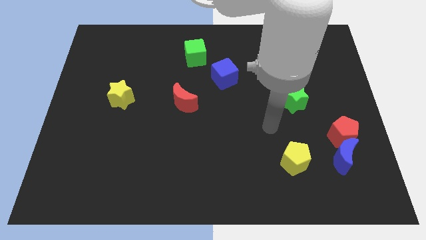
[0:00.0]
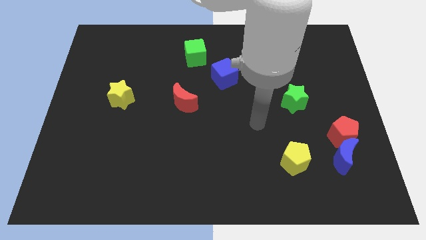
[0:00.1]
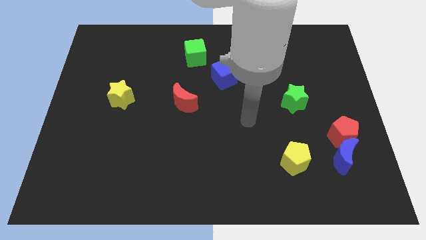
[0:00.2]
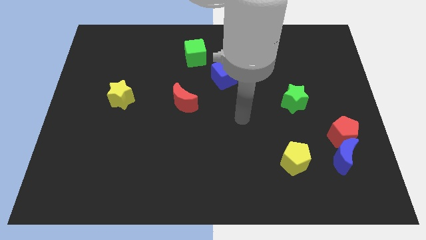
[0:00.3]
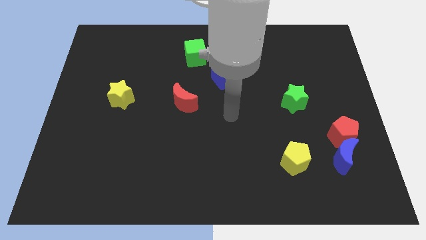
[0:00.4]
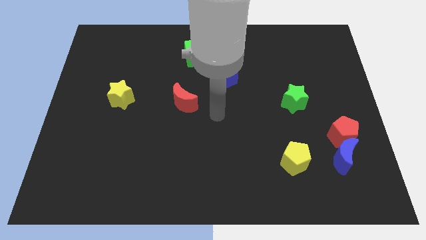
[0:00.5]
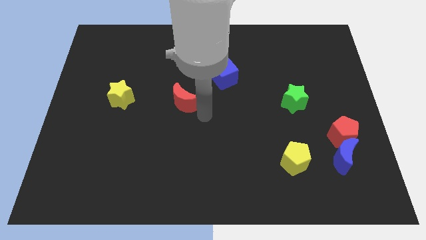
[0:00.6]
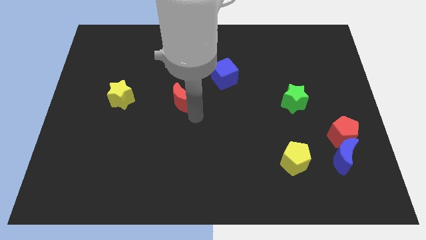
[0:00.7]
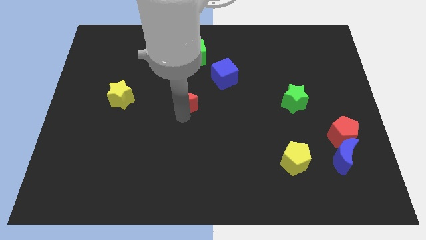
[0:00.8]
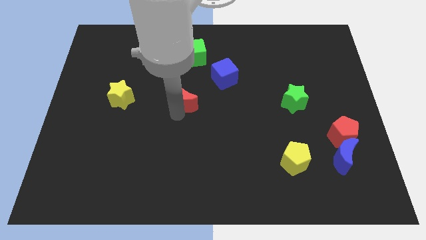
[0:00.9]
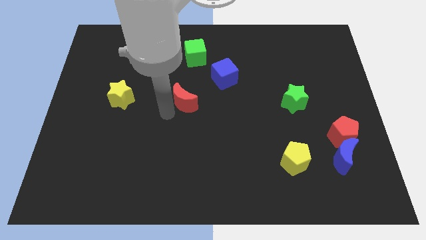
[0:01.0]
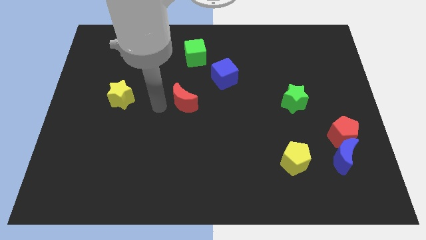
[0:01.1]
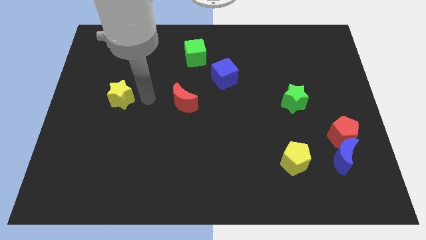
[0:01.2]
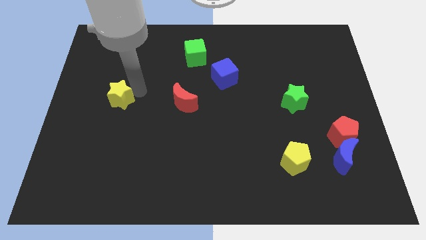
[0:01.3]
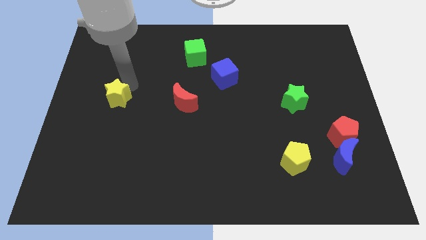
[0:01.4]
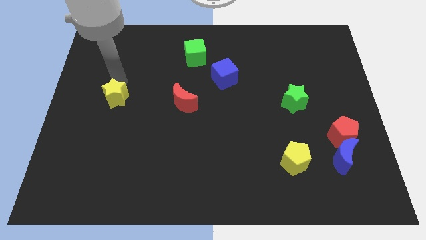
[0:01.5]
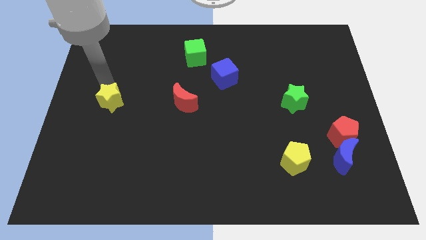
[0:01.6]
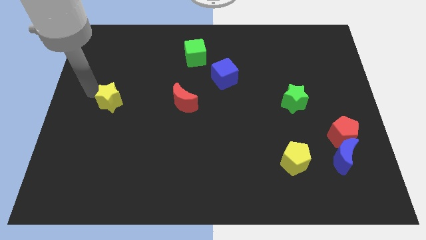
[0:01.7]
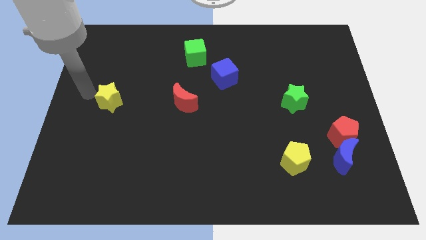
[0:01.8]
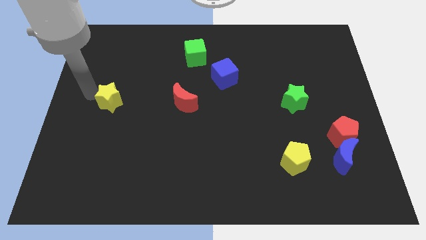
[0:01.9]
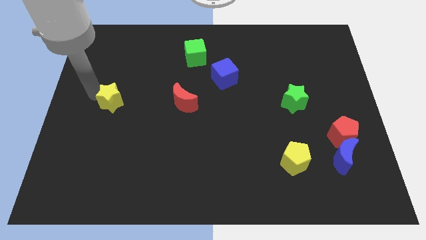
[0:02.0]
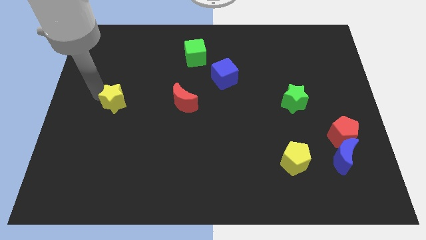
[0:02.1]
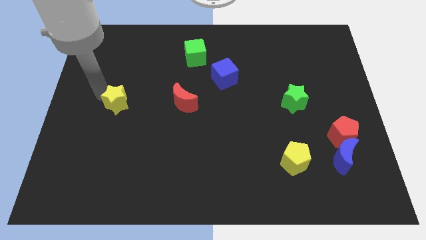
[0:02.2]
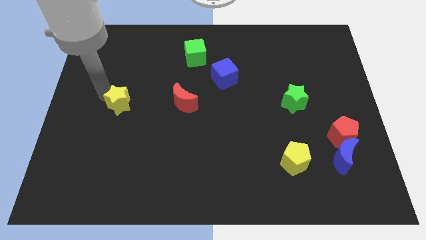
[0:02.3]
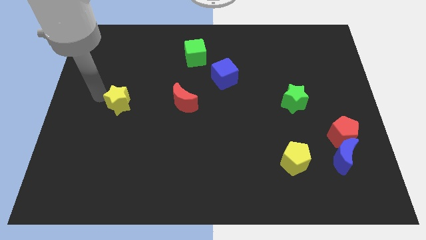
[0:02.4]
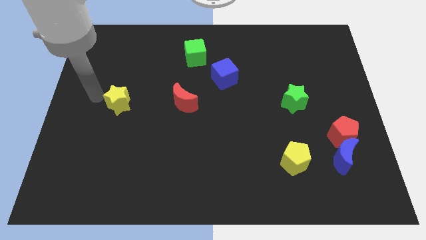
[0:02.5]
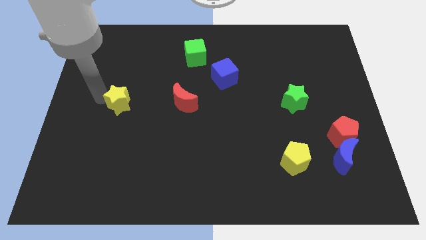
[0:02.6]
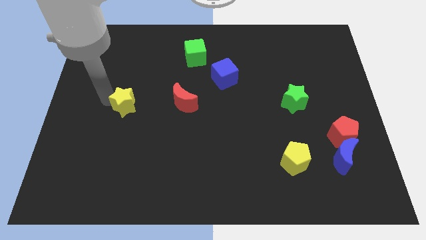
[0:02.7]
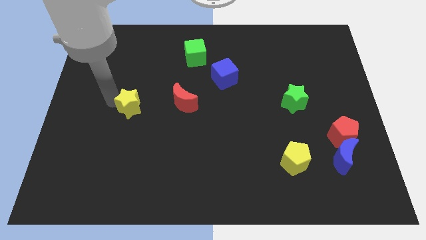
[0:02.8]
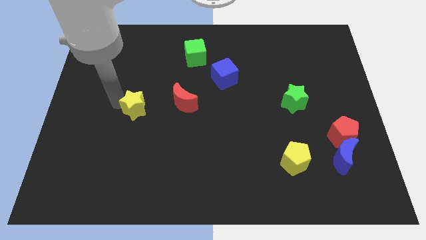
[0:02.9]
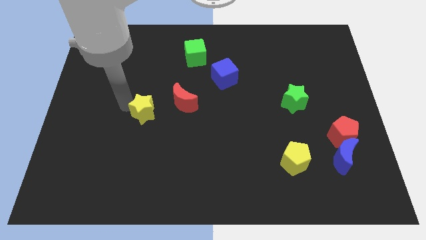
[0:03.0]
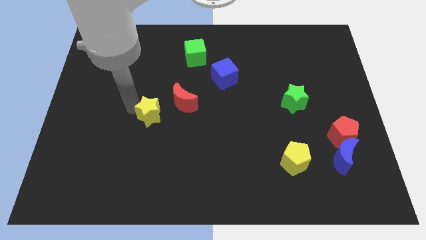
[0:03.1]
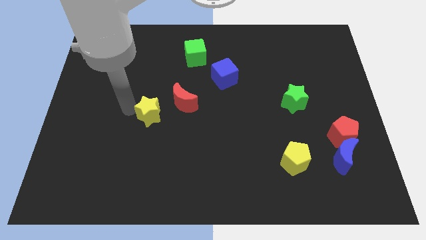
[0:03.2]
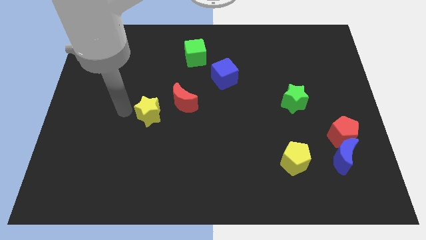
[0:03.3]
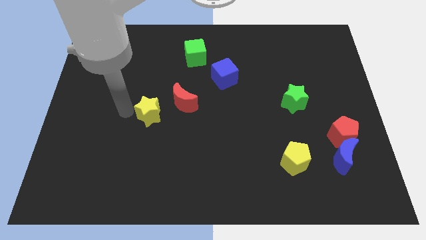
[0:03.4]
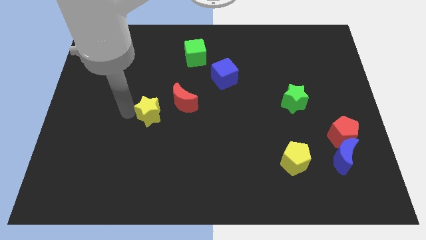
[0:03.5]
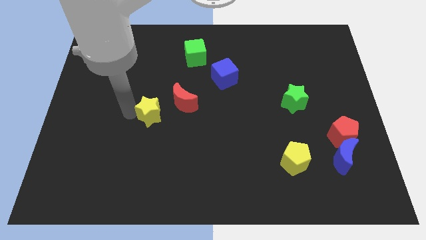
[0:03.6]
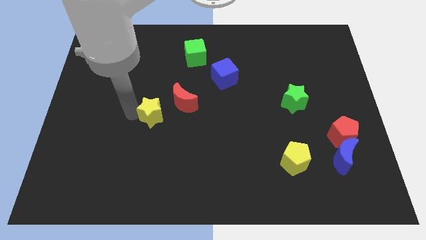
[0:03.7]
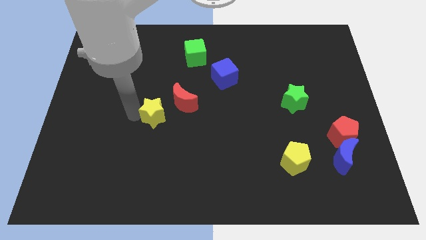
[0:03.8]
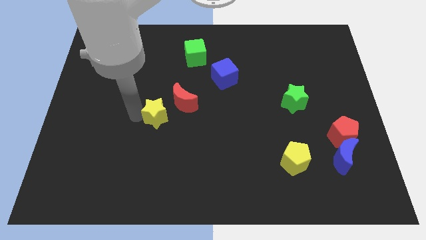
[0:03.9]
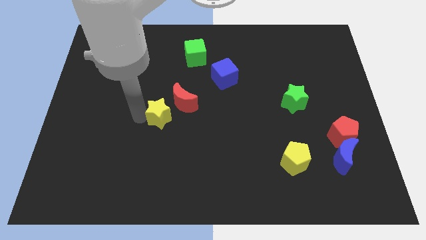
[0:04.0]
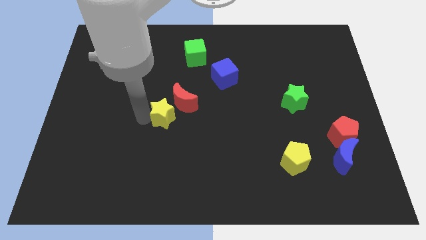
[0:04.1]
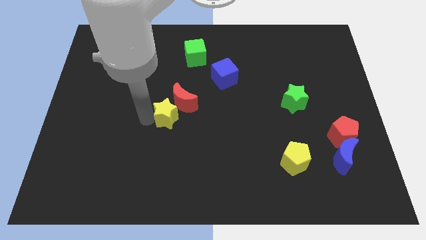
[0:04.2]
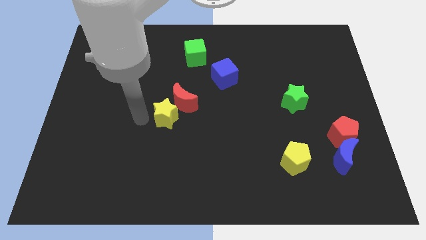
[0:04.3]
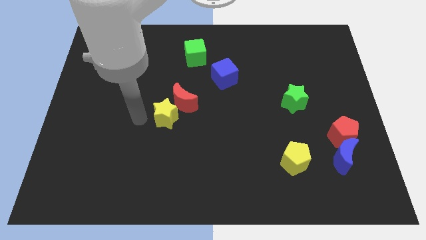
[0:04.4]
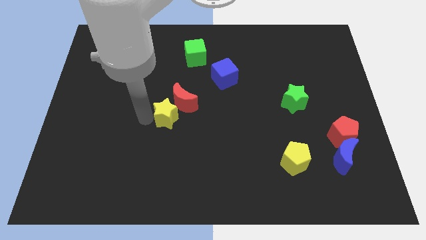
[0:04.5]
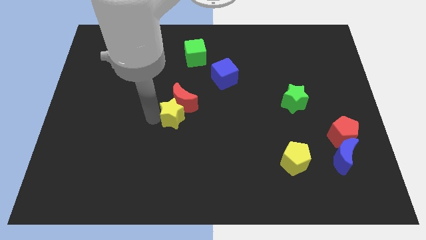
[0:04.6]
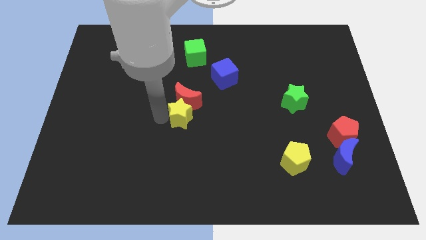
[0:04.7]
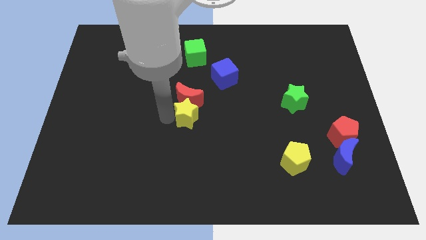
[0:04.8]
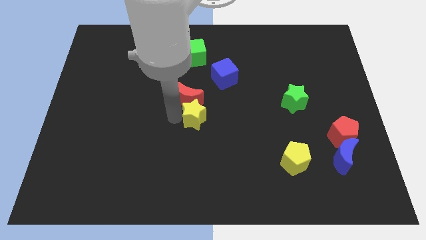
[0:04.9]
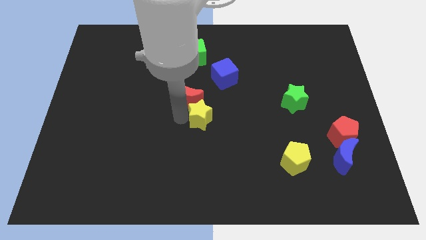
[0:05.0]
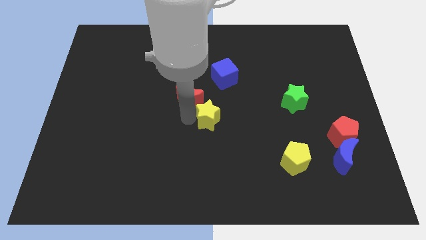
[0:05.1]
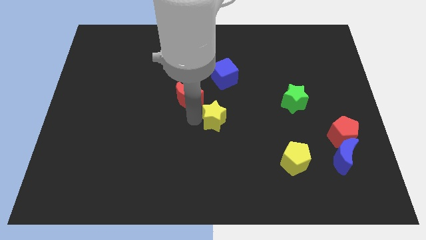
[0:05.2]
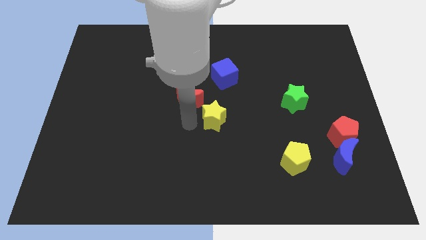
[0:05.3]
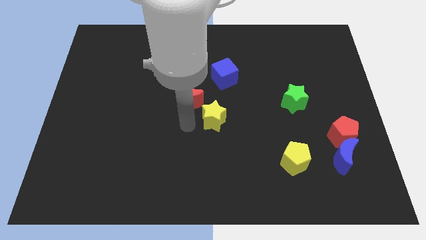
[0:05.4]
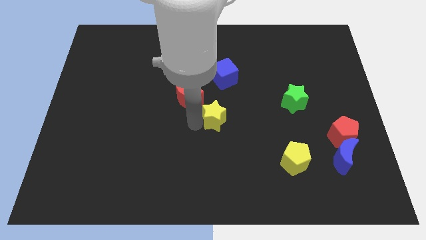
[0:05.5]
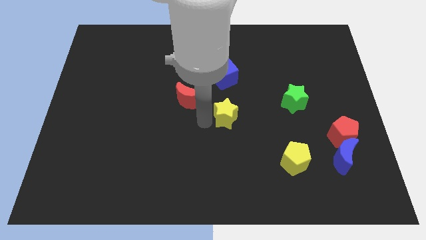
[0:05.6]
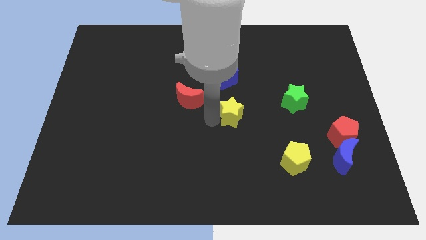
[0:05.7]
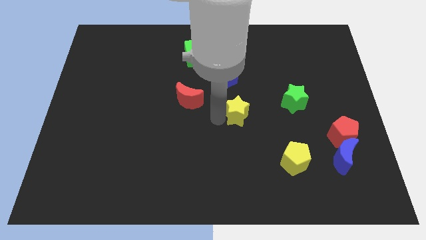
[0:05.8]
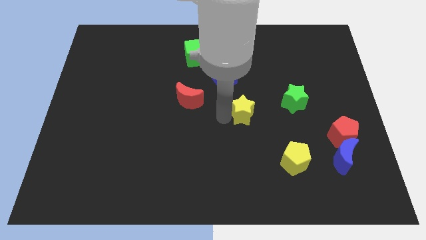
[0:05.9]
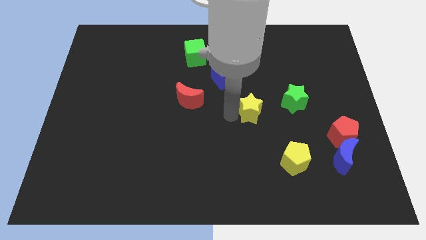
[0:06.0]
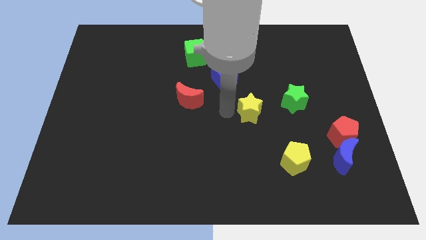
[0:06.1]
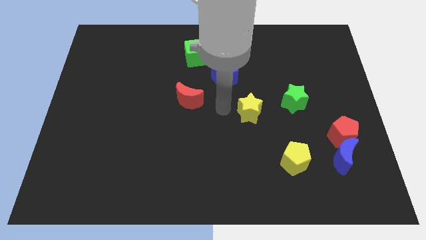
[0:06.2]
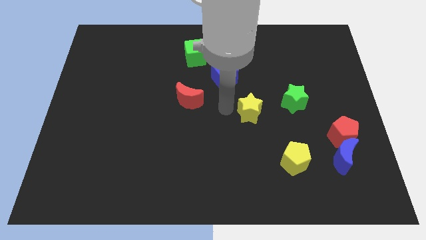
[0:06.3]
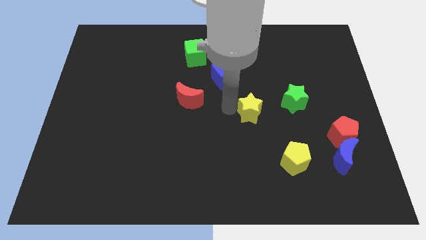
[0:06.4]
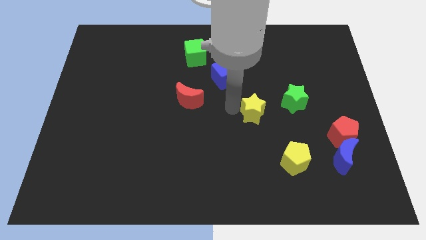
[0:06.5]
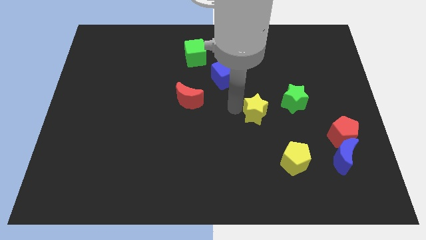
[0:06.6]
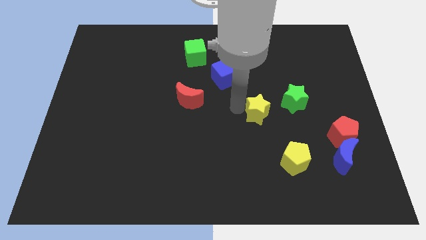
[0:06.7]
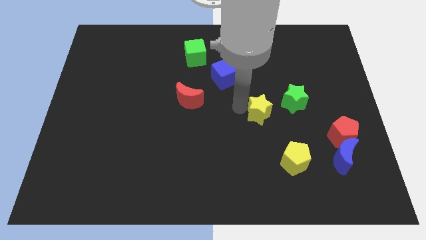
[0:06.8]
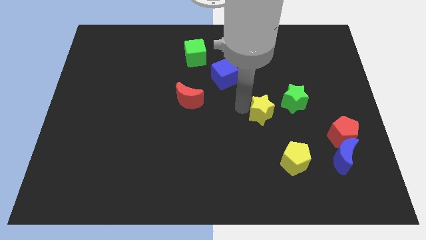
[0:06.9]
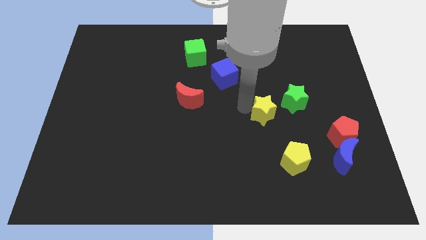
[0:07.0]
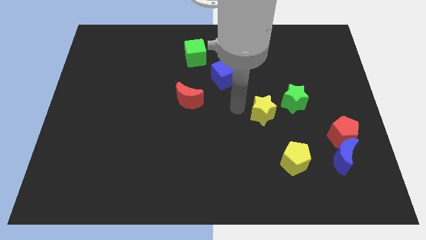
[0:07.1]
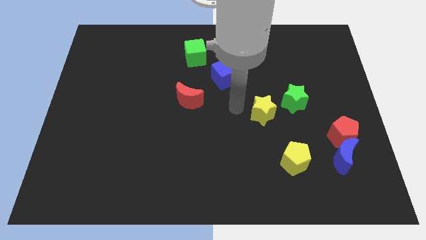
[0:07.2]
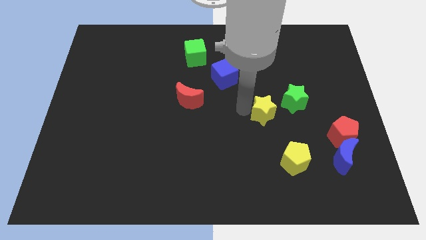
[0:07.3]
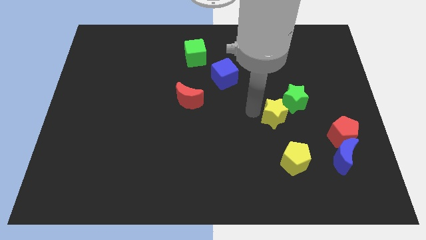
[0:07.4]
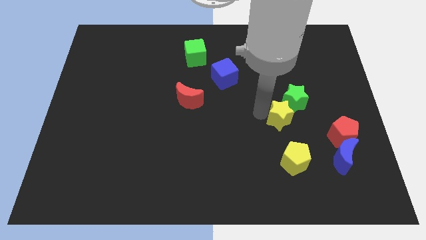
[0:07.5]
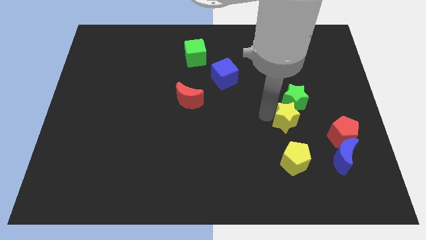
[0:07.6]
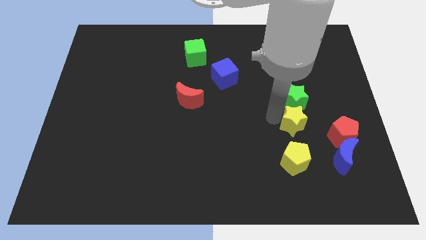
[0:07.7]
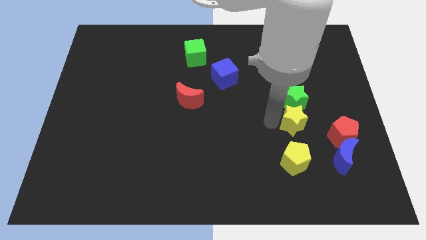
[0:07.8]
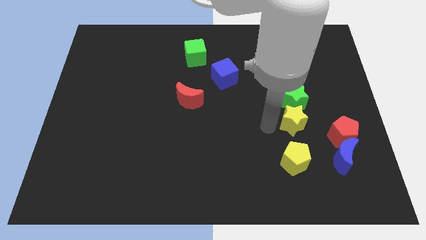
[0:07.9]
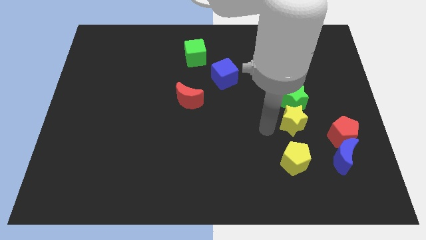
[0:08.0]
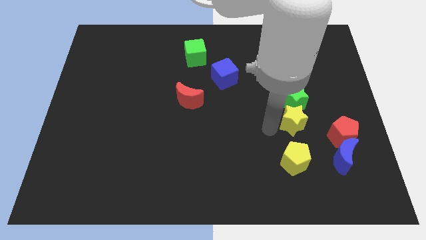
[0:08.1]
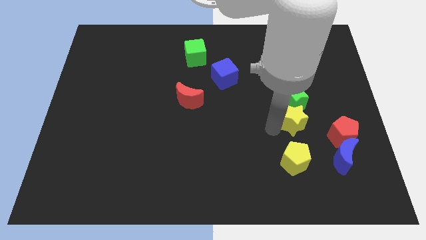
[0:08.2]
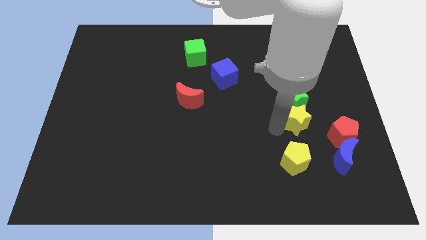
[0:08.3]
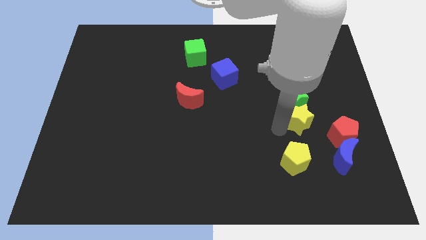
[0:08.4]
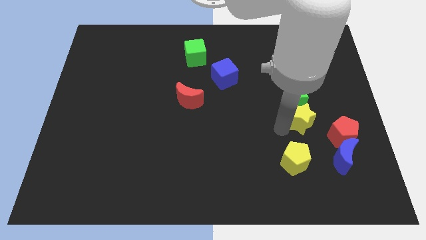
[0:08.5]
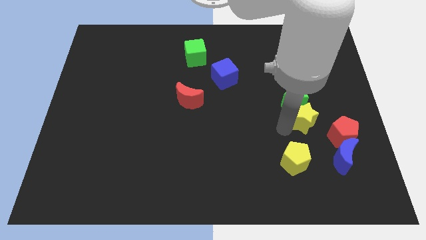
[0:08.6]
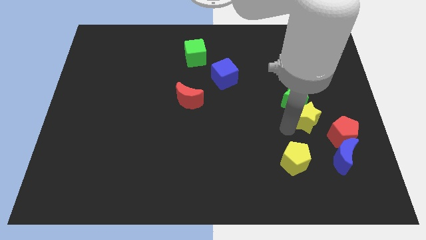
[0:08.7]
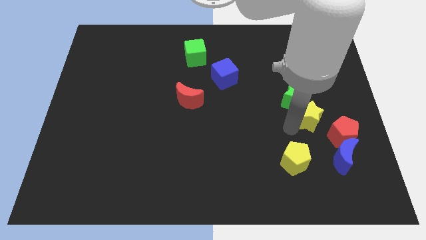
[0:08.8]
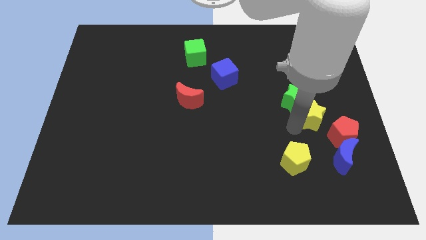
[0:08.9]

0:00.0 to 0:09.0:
put the yellow star above the blue moon
